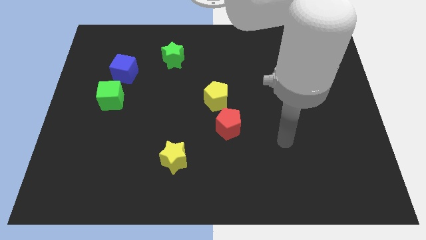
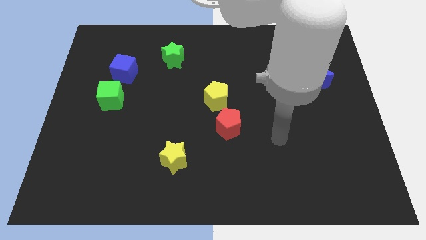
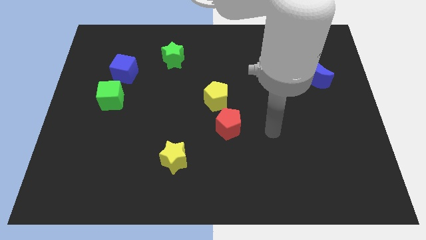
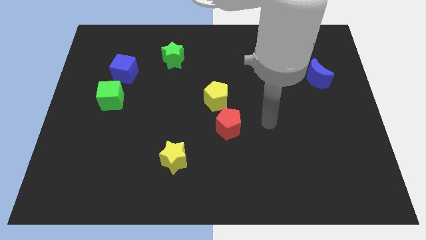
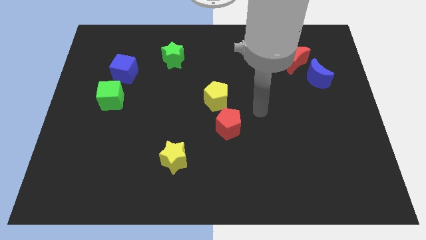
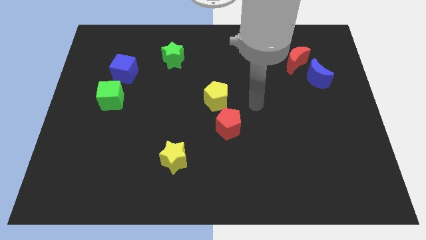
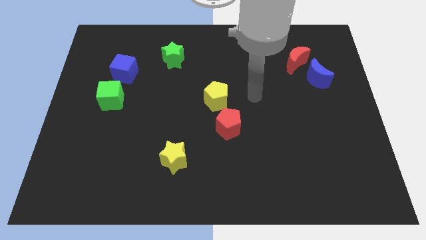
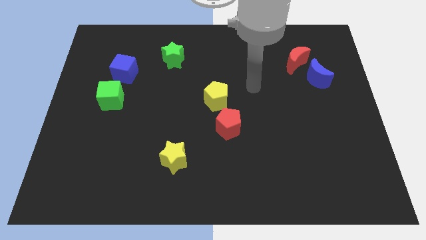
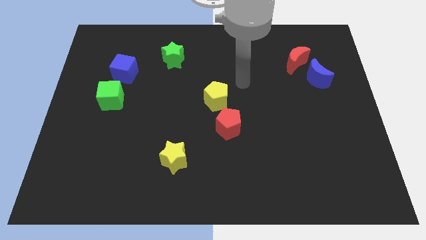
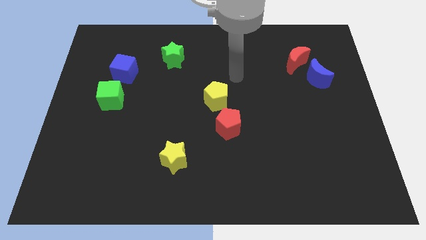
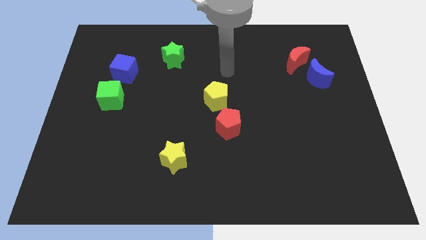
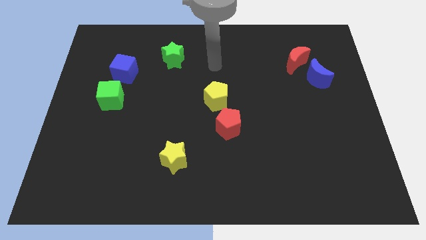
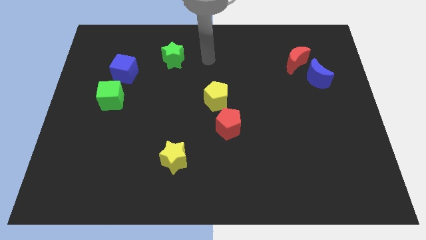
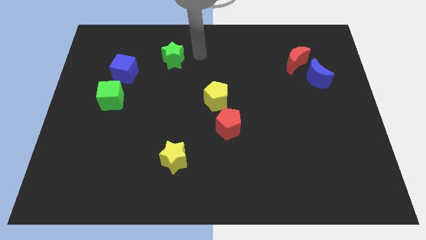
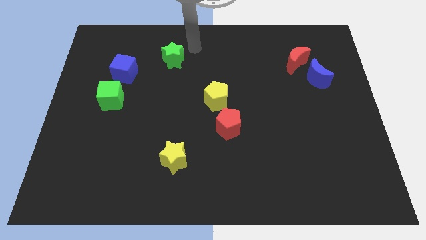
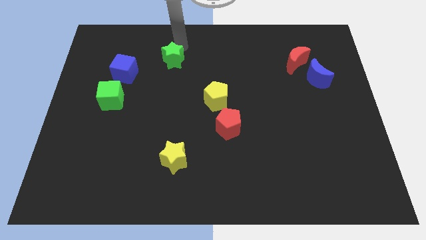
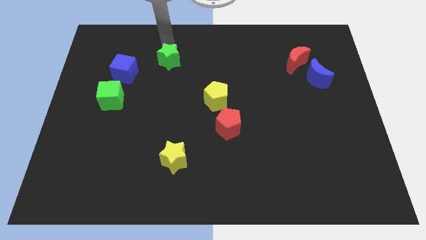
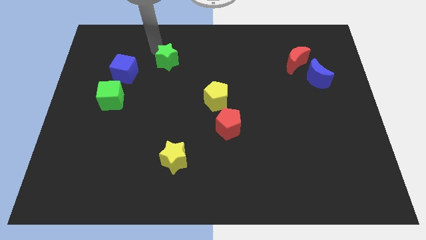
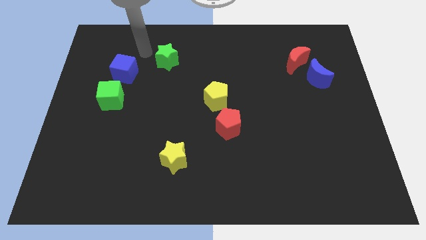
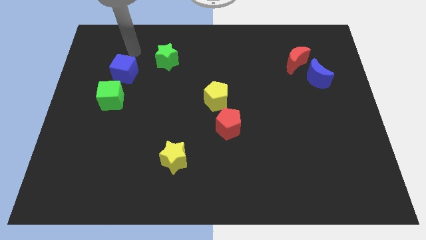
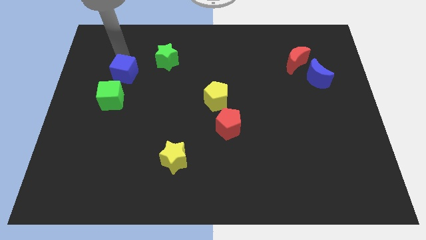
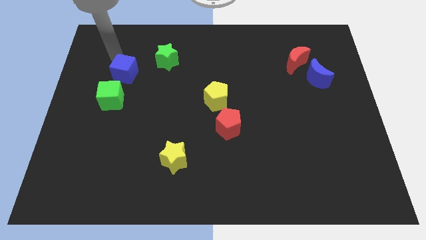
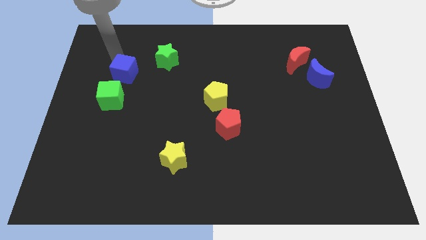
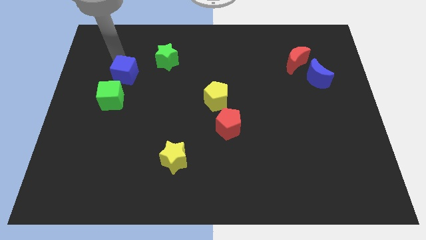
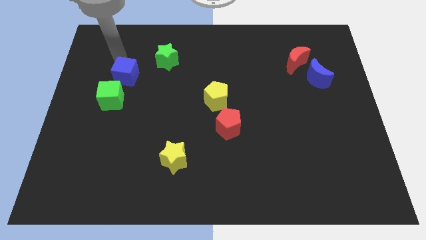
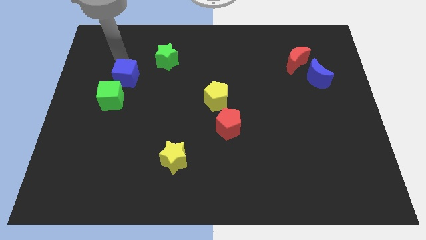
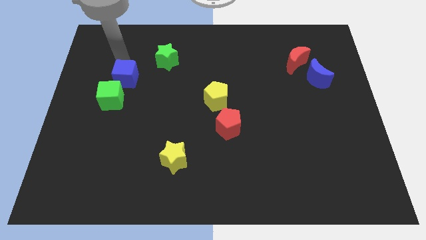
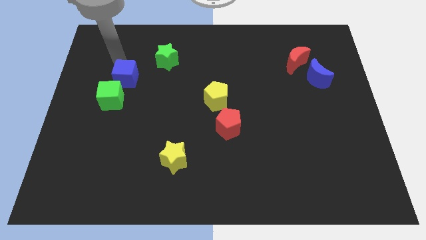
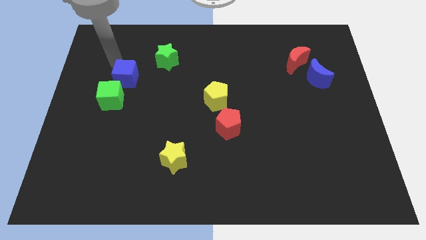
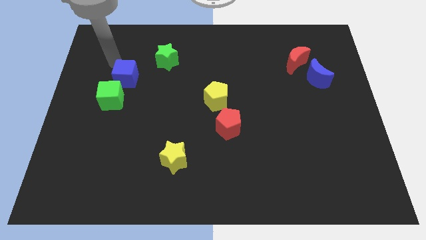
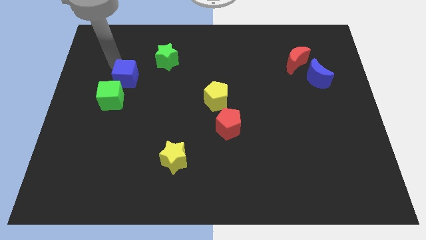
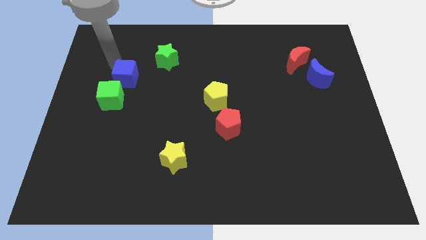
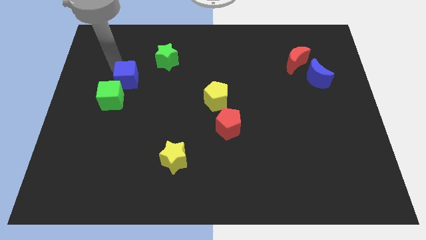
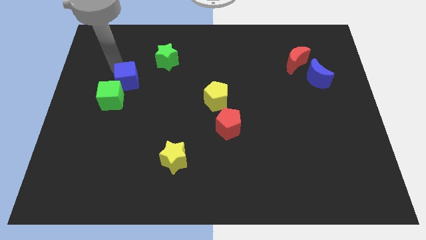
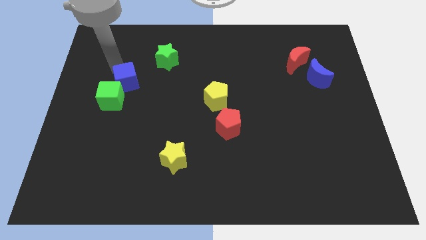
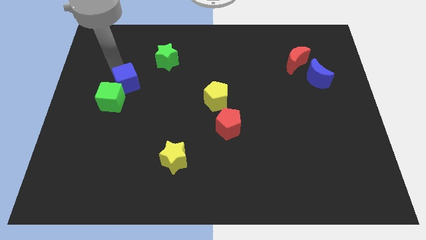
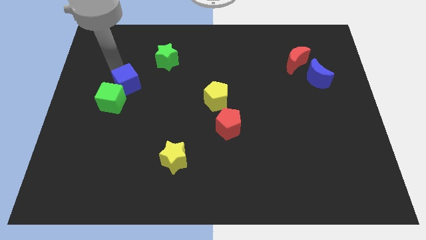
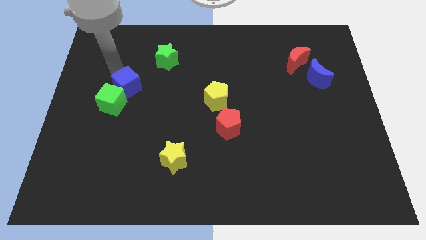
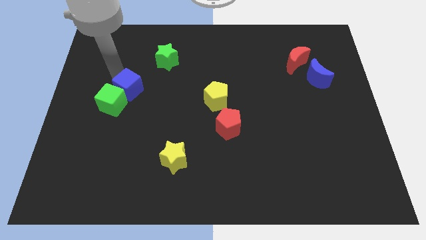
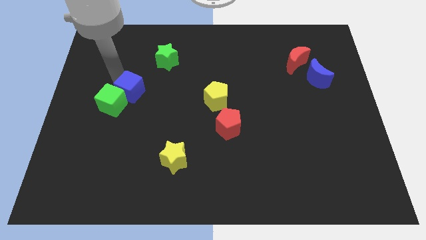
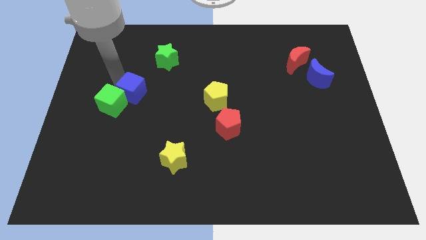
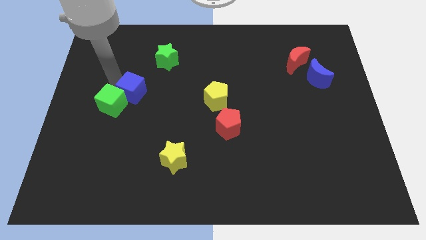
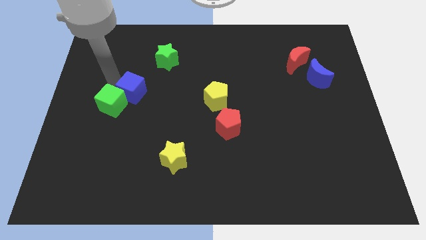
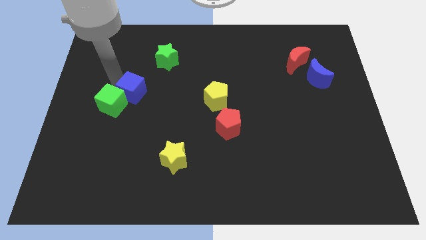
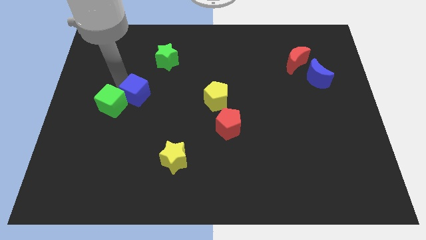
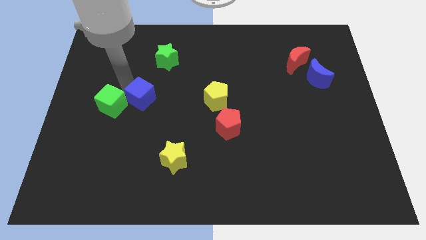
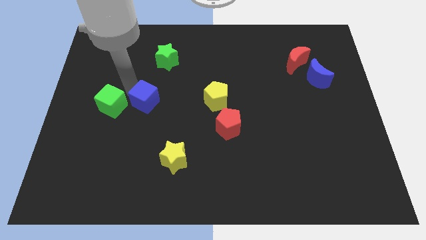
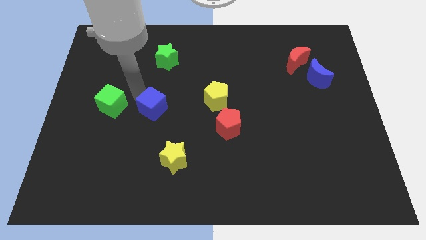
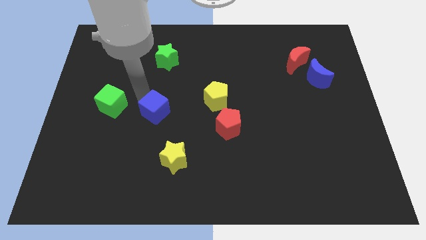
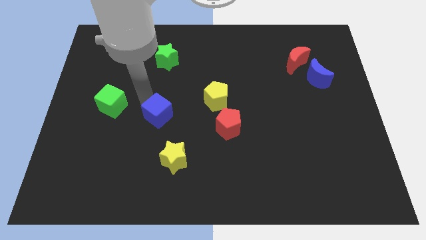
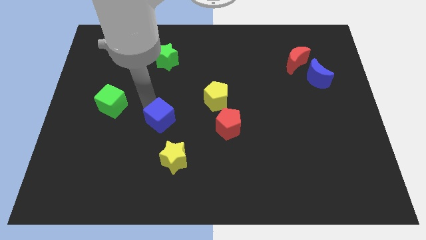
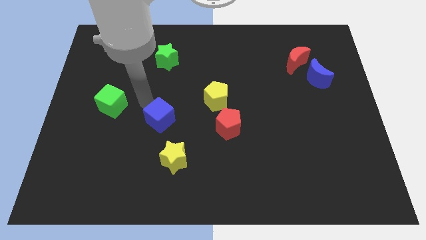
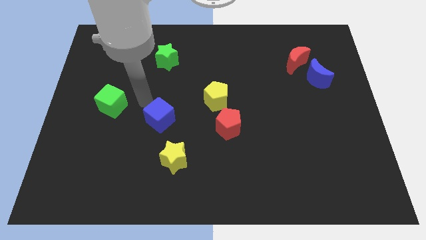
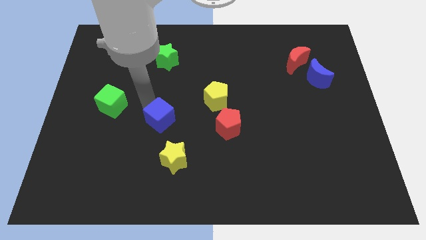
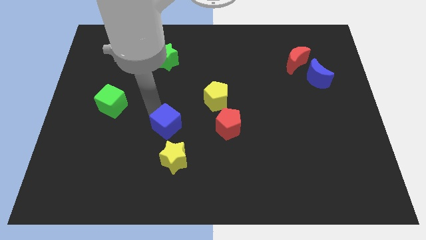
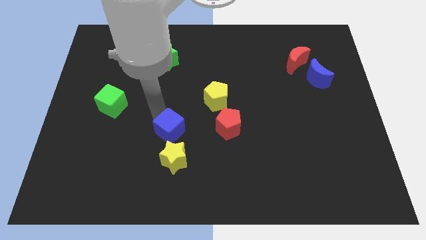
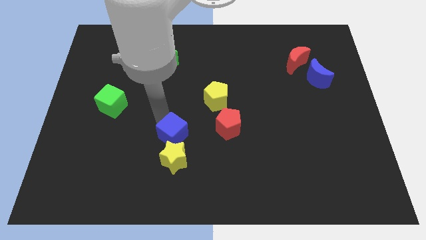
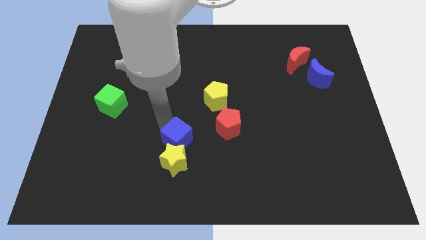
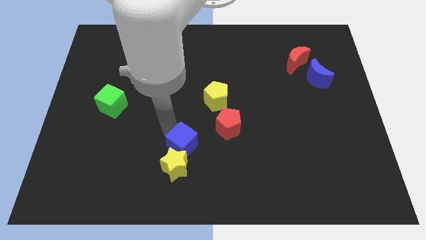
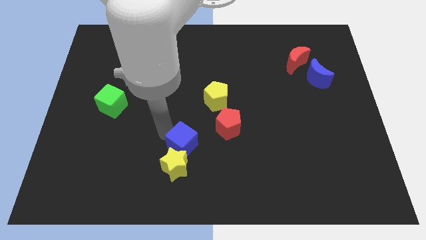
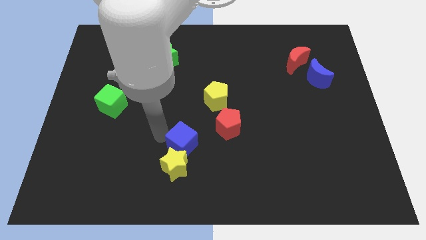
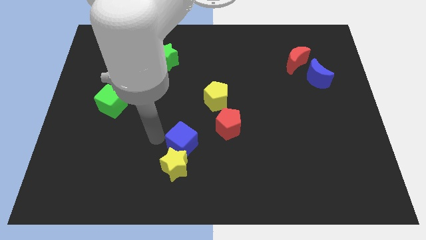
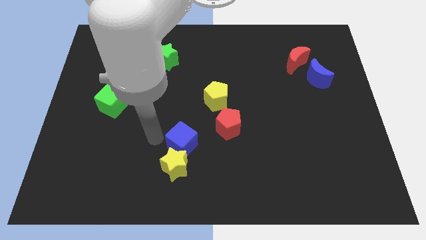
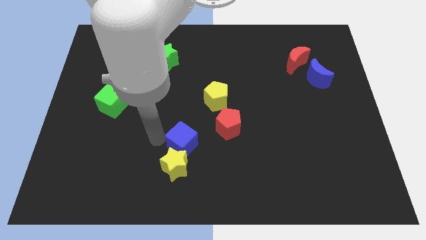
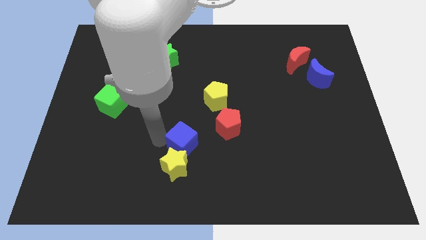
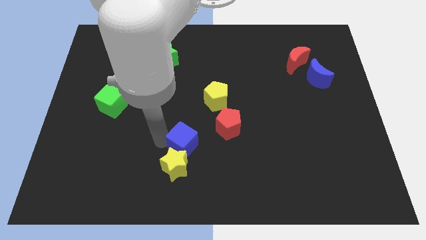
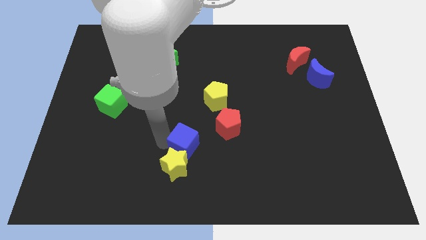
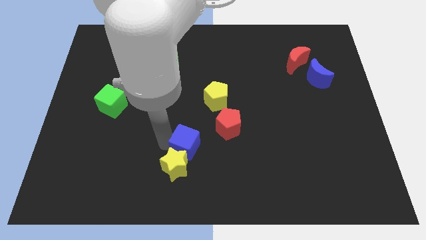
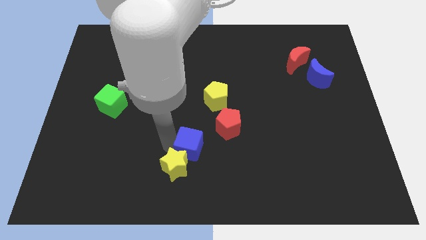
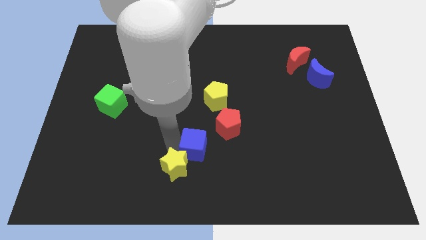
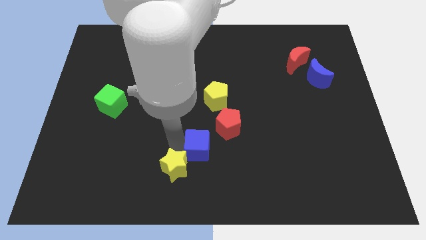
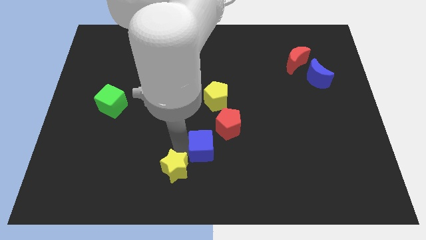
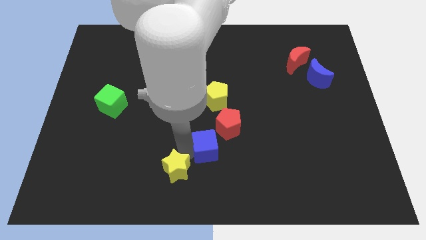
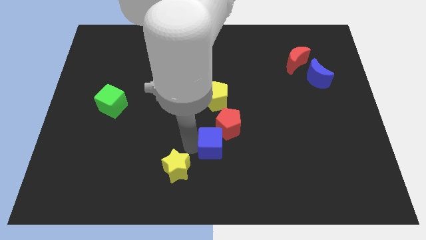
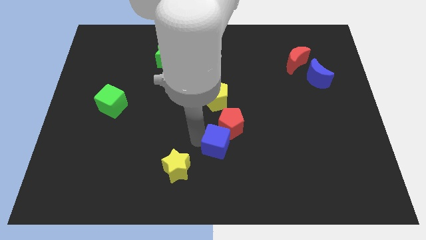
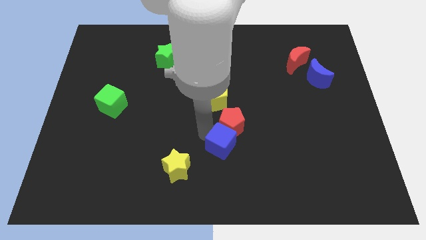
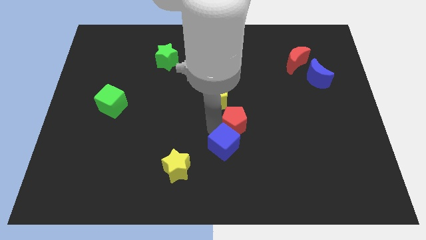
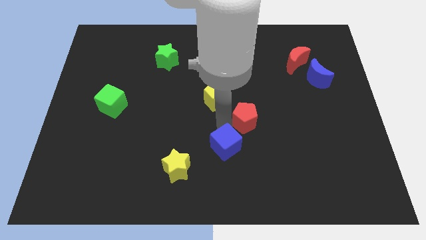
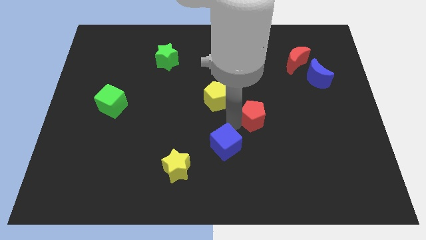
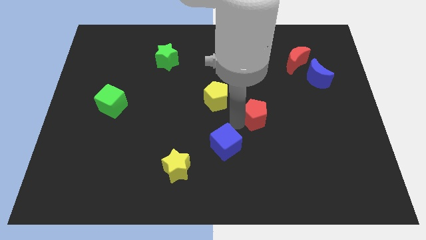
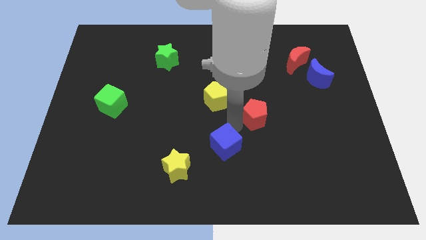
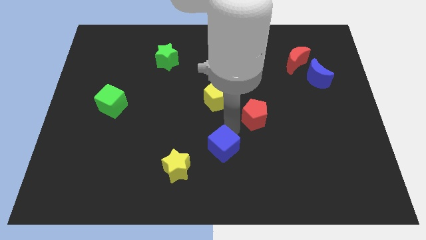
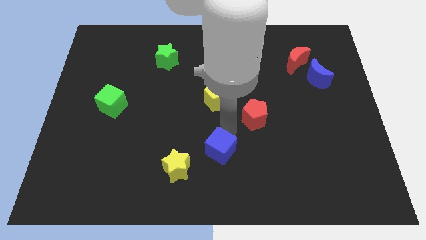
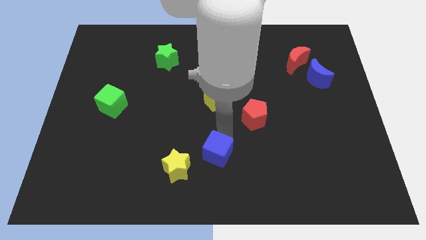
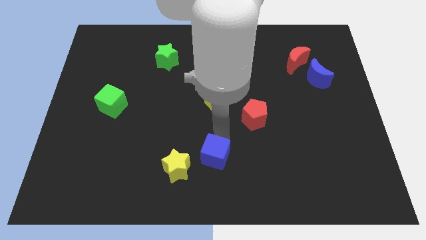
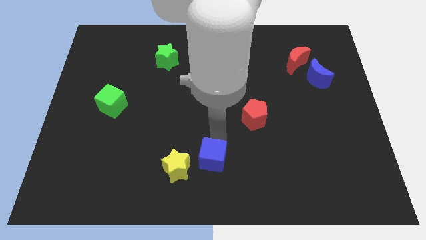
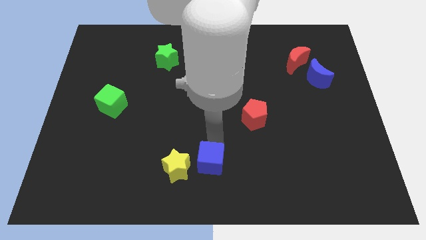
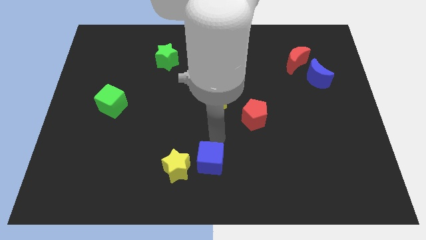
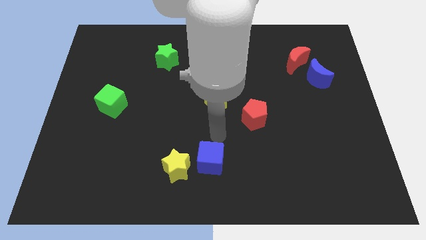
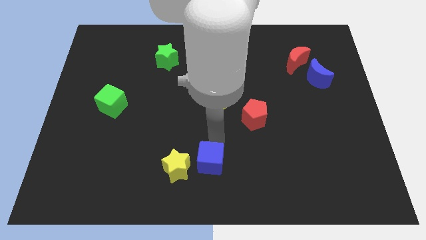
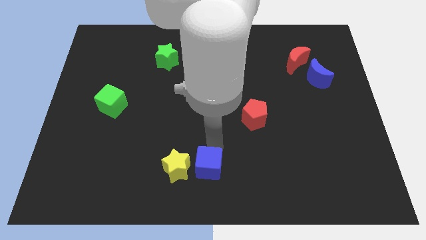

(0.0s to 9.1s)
push the blue cube to the bottom right side of the yellow star
